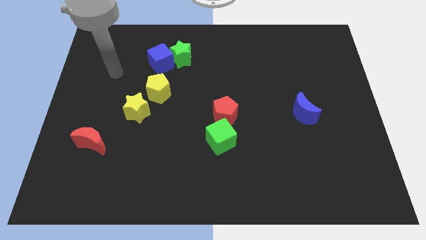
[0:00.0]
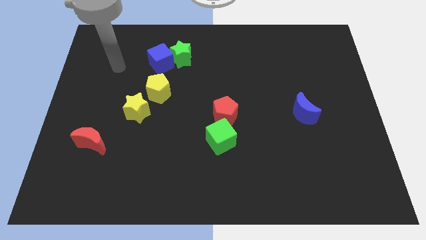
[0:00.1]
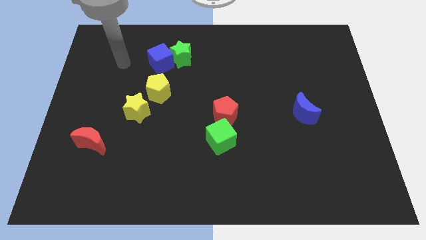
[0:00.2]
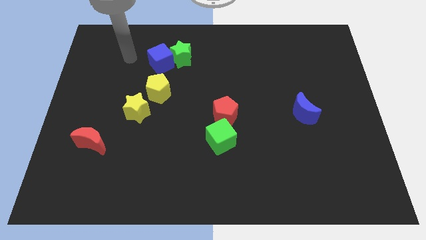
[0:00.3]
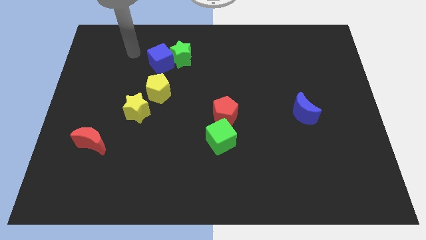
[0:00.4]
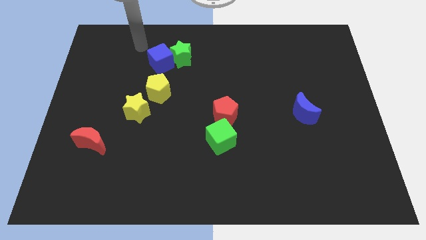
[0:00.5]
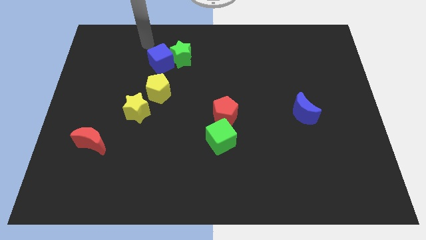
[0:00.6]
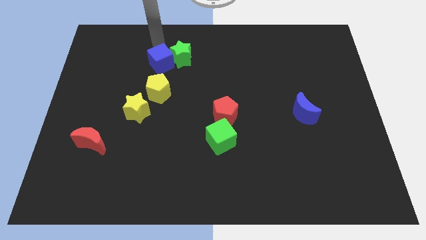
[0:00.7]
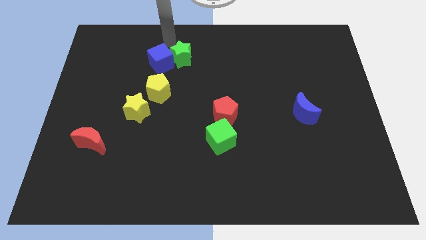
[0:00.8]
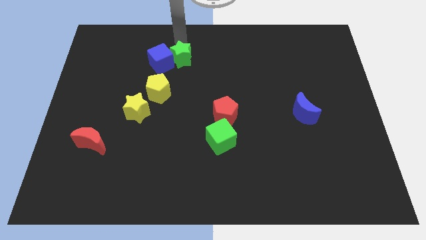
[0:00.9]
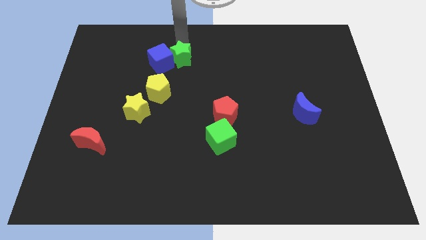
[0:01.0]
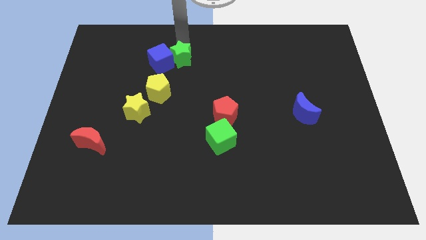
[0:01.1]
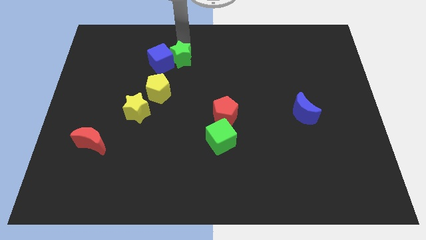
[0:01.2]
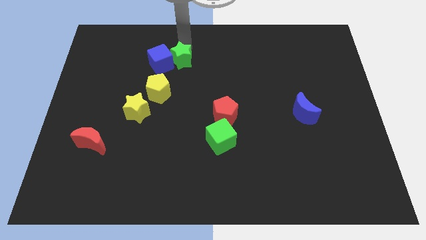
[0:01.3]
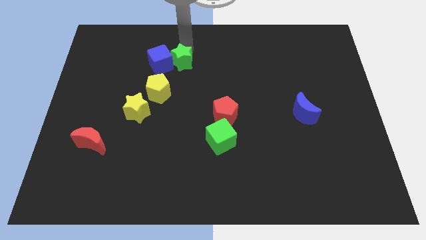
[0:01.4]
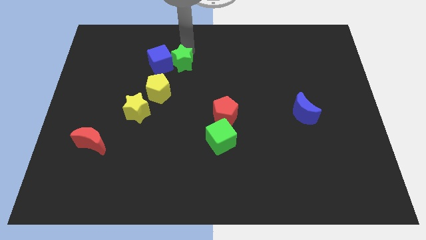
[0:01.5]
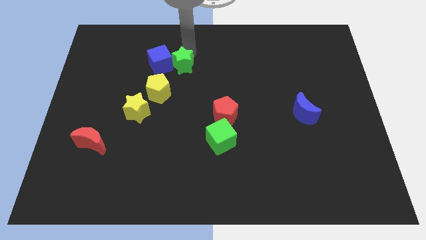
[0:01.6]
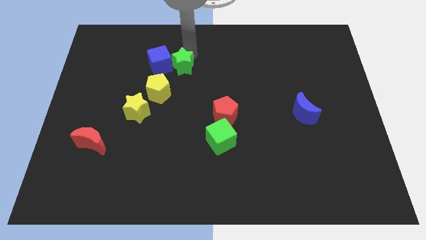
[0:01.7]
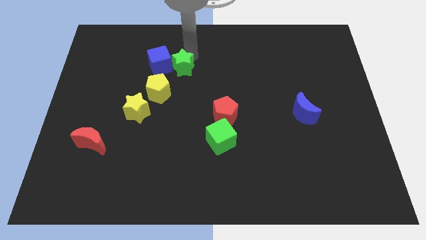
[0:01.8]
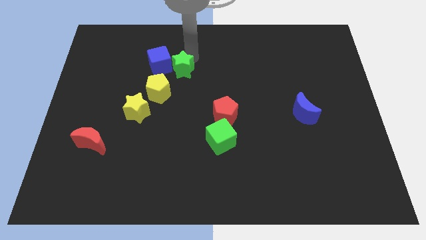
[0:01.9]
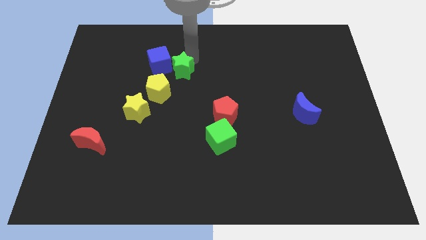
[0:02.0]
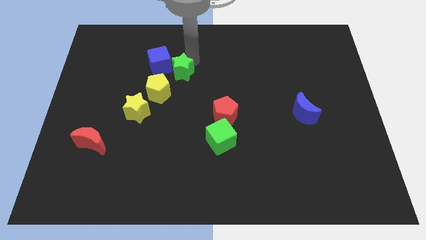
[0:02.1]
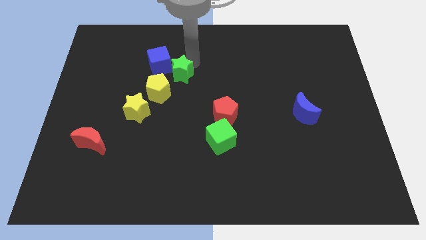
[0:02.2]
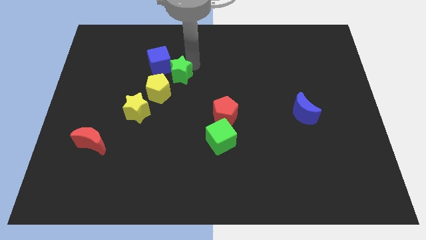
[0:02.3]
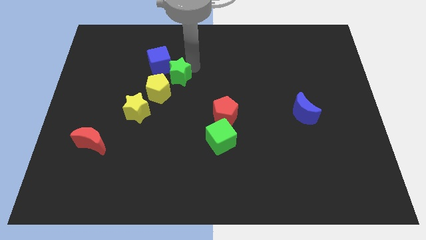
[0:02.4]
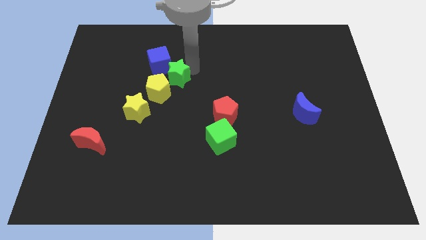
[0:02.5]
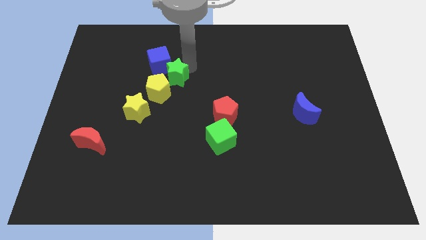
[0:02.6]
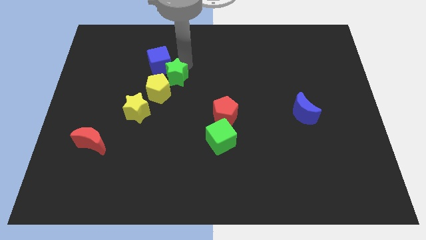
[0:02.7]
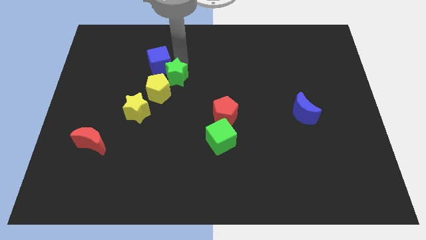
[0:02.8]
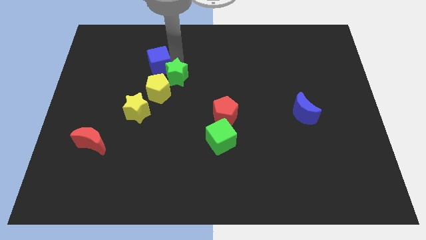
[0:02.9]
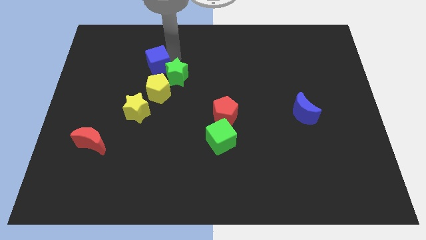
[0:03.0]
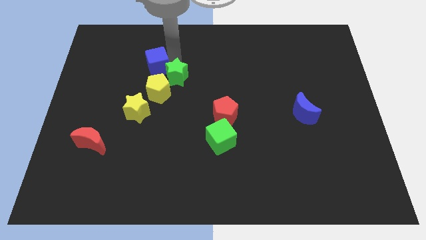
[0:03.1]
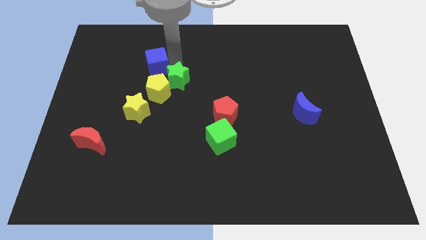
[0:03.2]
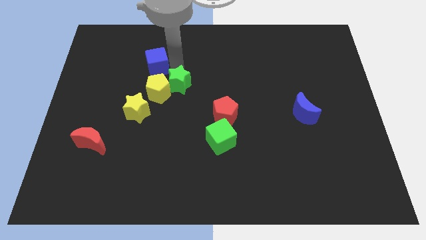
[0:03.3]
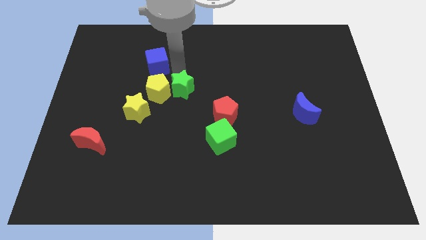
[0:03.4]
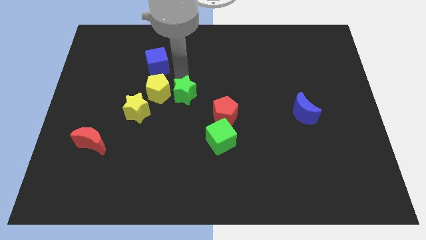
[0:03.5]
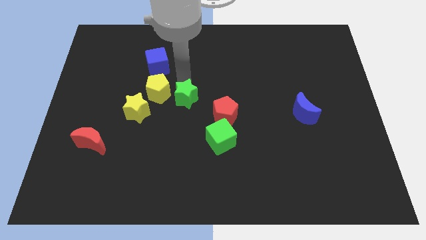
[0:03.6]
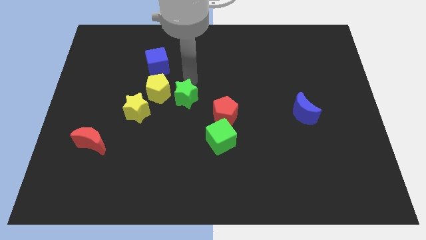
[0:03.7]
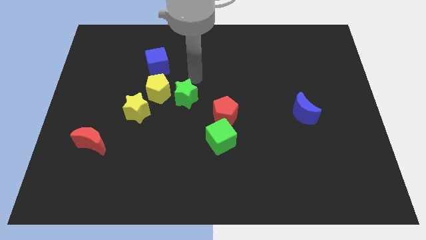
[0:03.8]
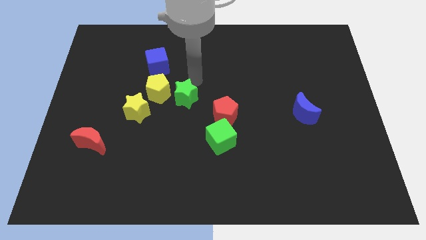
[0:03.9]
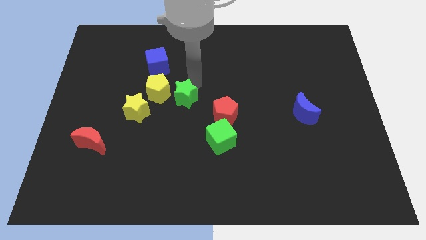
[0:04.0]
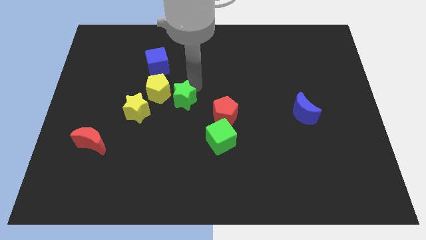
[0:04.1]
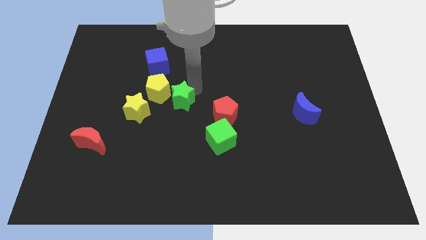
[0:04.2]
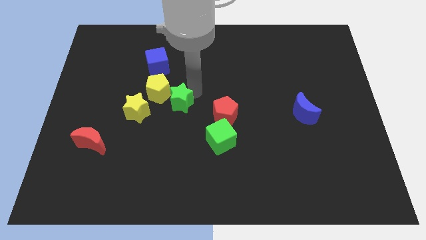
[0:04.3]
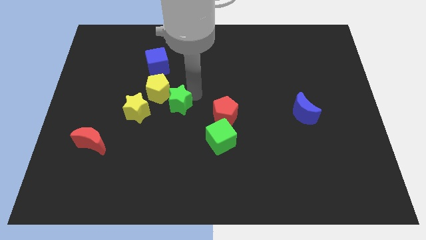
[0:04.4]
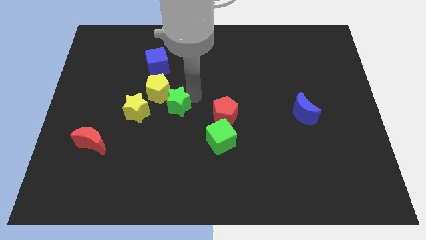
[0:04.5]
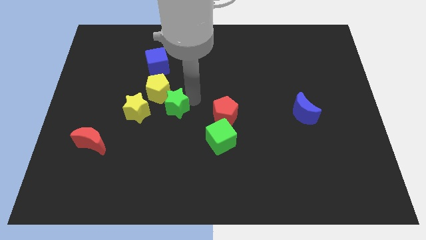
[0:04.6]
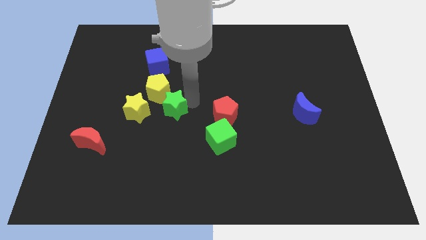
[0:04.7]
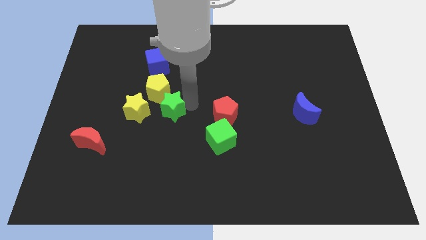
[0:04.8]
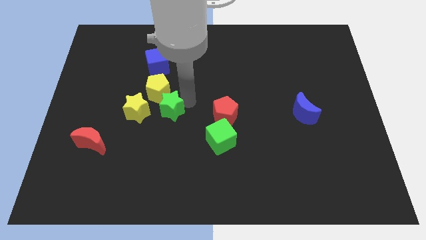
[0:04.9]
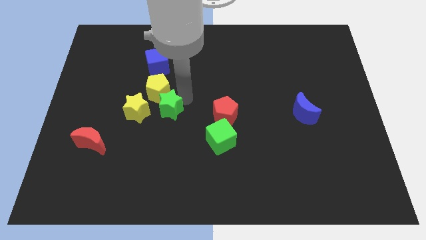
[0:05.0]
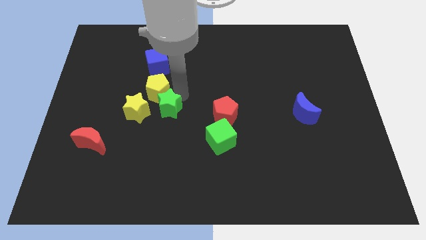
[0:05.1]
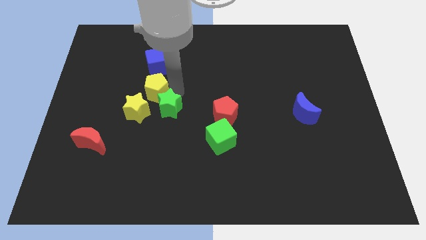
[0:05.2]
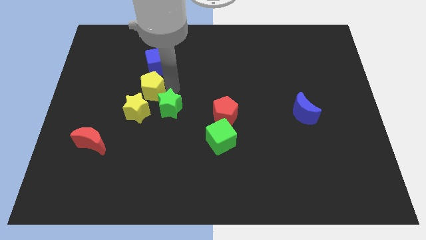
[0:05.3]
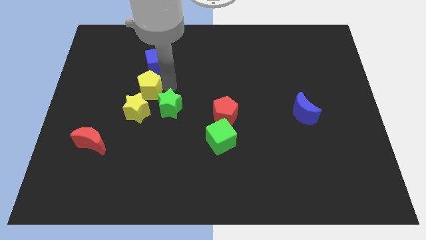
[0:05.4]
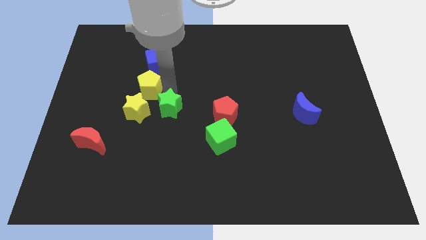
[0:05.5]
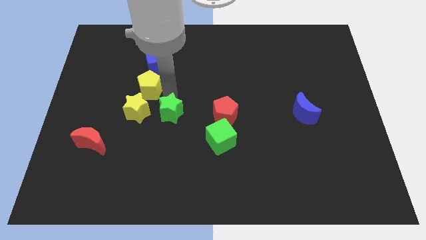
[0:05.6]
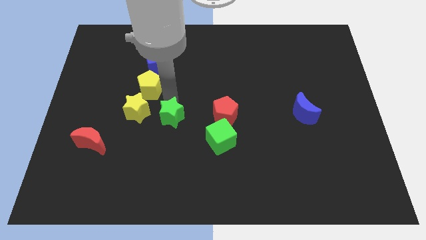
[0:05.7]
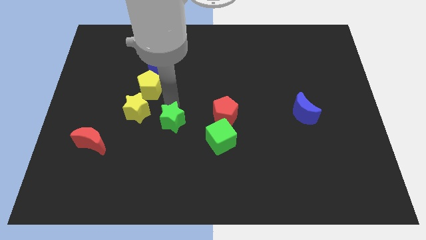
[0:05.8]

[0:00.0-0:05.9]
move the green star down

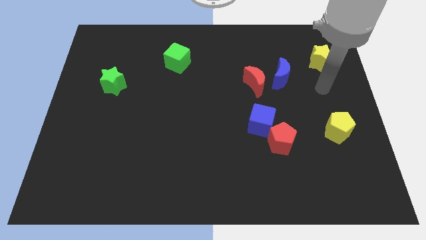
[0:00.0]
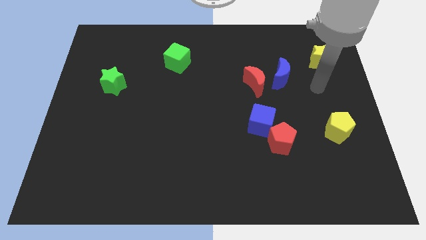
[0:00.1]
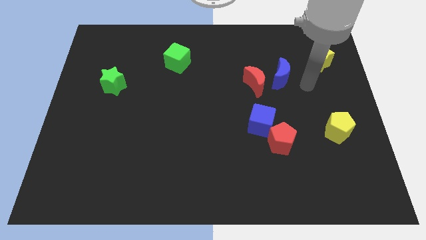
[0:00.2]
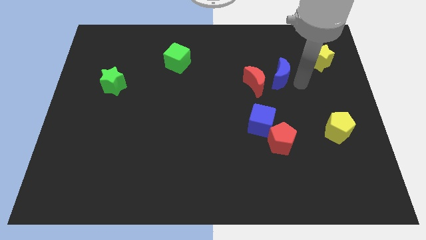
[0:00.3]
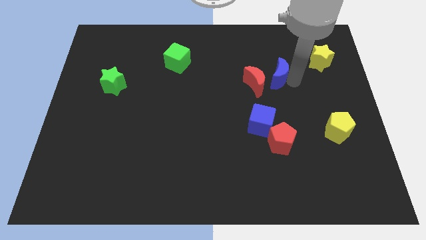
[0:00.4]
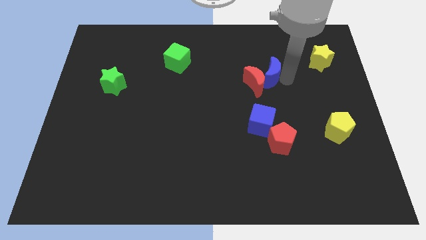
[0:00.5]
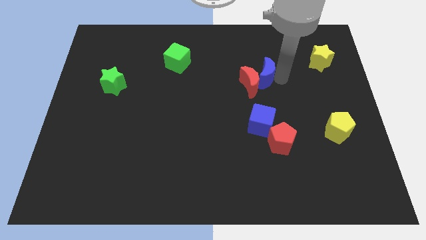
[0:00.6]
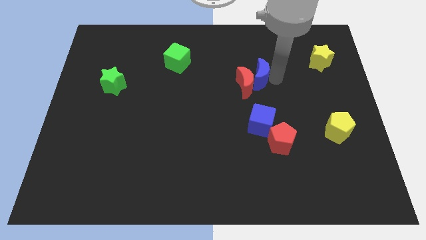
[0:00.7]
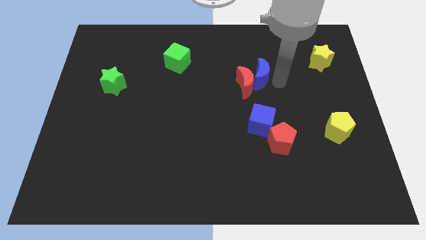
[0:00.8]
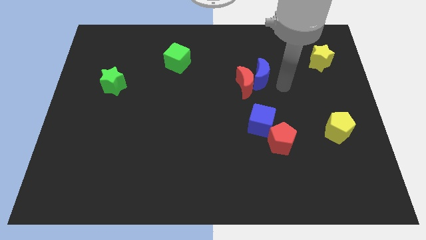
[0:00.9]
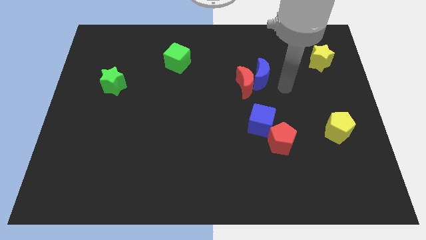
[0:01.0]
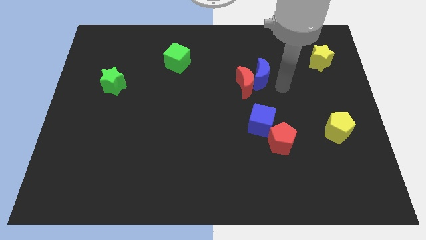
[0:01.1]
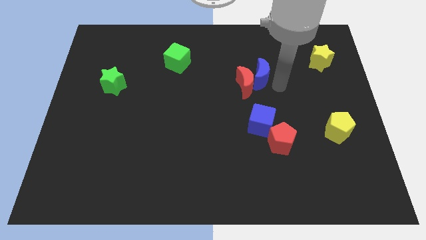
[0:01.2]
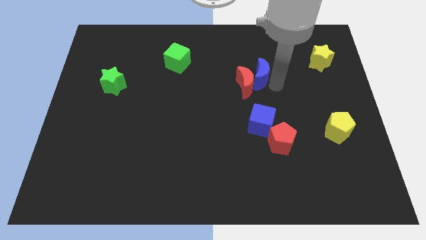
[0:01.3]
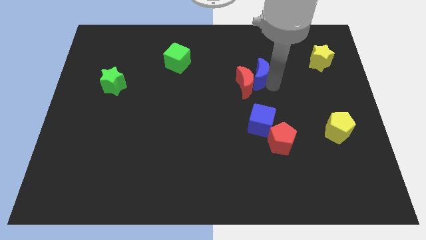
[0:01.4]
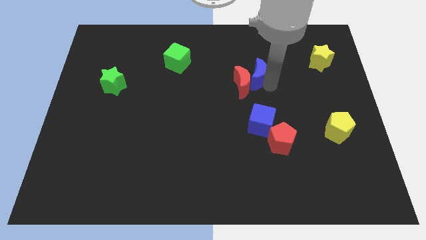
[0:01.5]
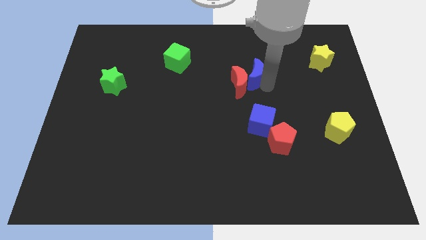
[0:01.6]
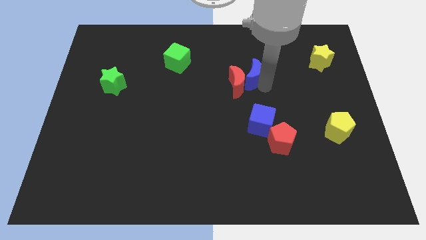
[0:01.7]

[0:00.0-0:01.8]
slightly move the blue moon to the left

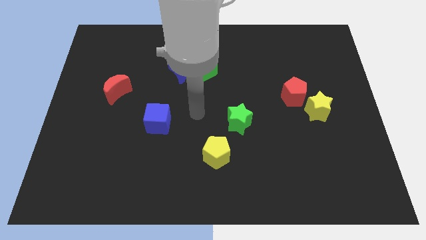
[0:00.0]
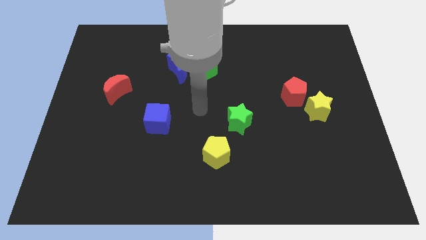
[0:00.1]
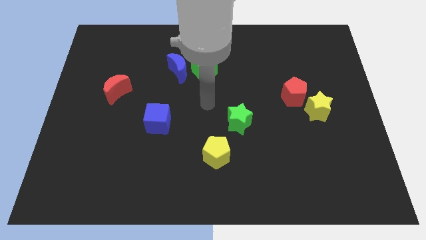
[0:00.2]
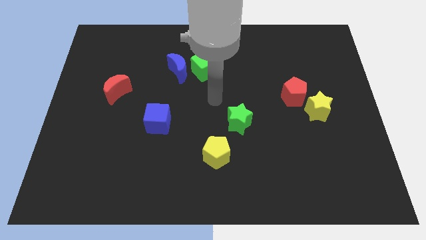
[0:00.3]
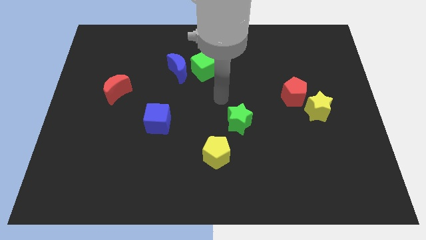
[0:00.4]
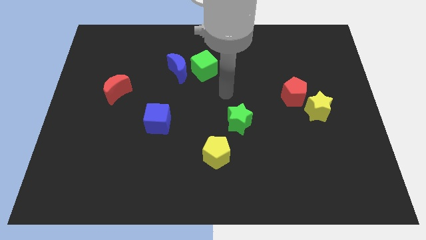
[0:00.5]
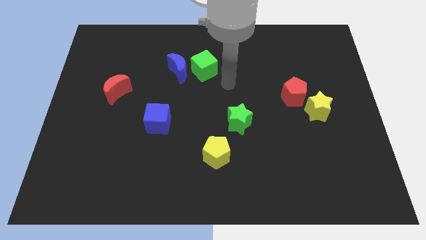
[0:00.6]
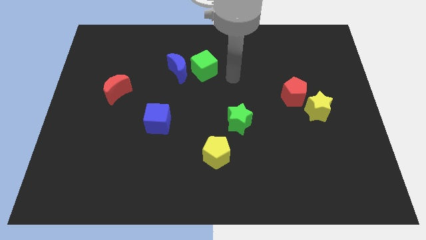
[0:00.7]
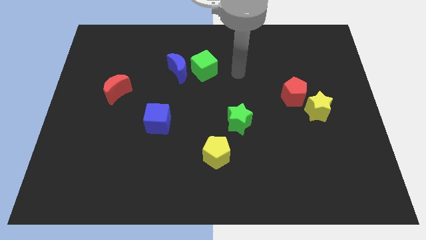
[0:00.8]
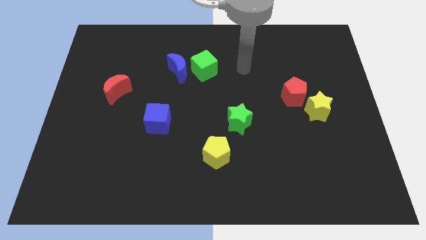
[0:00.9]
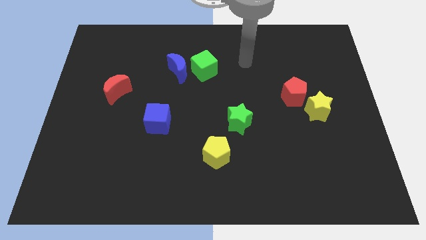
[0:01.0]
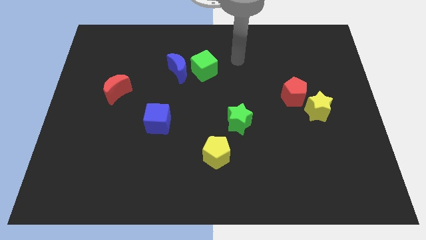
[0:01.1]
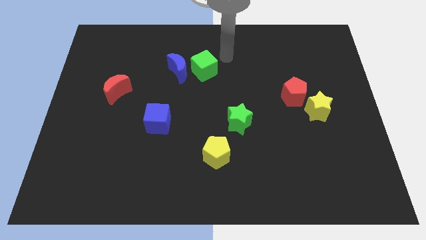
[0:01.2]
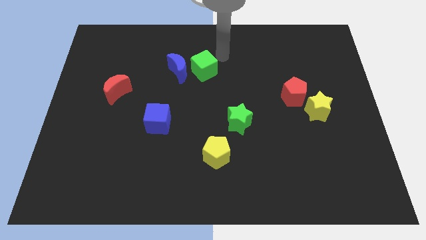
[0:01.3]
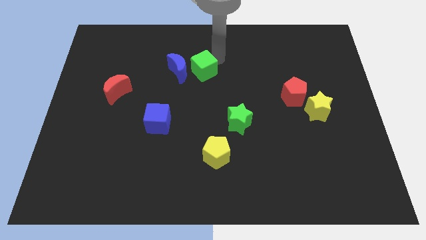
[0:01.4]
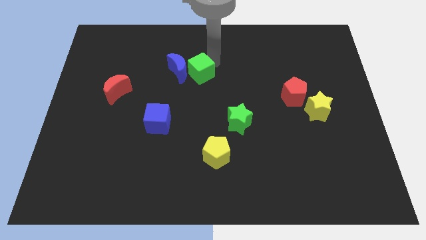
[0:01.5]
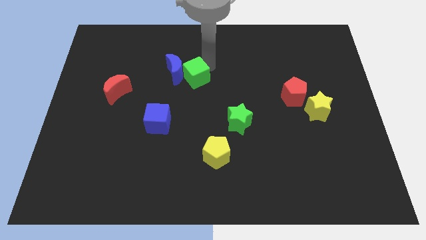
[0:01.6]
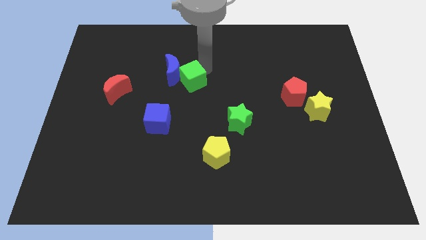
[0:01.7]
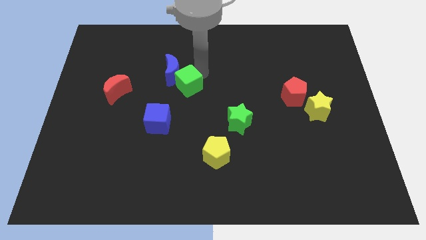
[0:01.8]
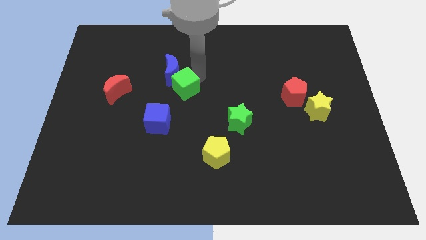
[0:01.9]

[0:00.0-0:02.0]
move the green cube downwards and to the left a little
